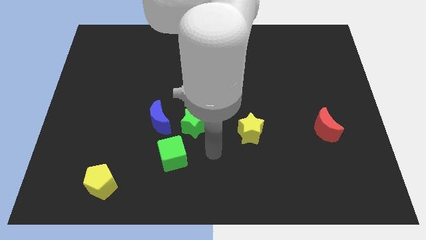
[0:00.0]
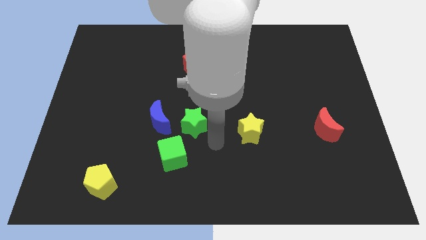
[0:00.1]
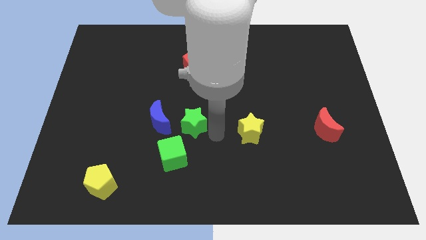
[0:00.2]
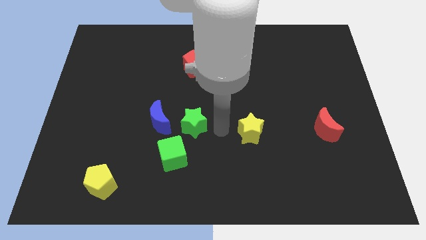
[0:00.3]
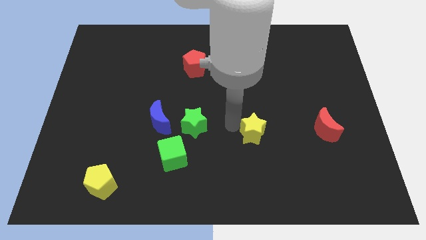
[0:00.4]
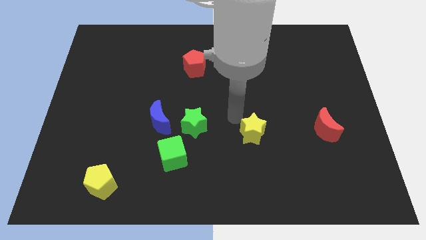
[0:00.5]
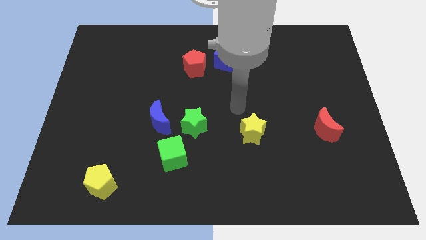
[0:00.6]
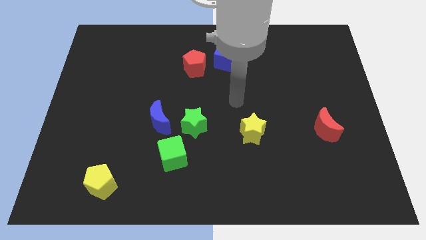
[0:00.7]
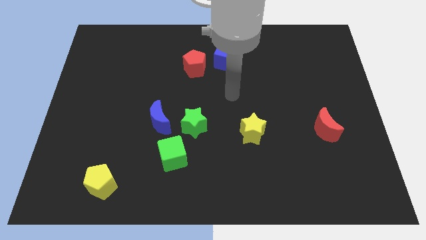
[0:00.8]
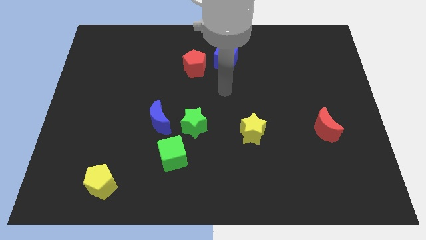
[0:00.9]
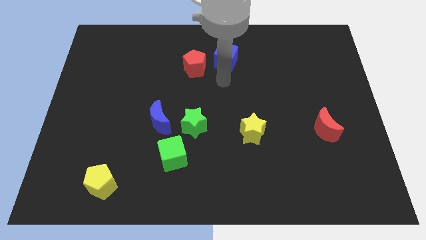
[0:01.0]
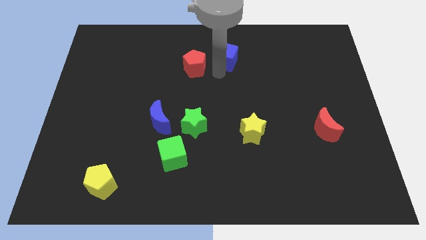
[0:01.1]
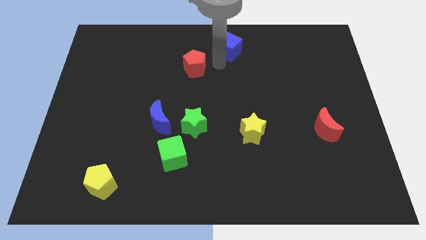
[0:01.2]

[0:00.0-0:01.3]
separate the red pentagon from the blue cube

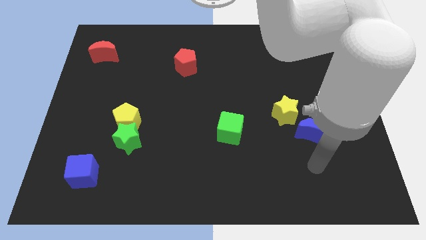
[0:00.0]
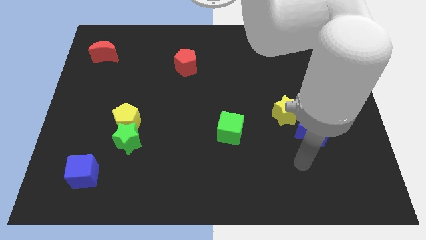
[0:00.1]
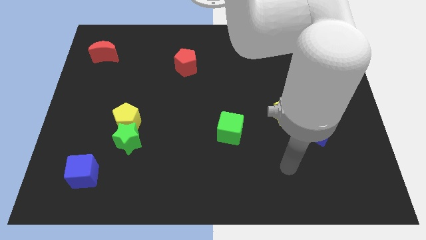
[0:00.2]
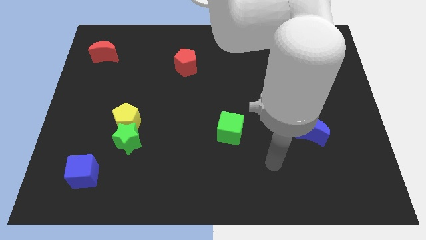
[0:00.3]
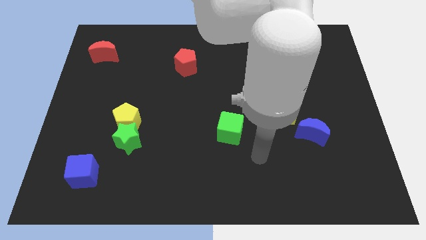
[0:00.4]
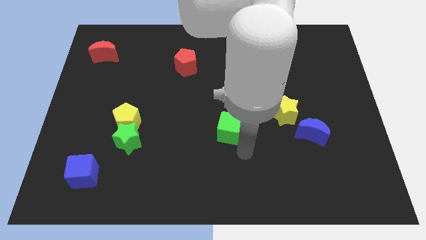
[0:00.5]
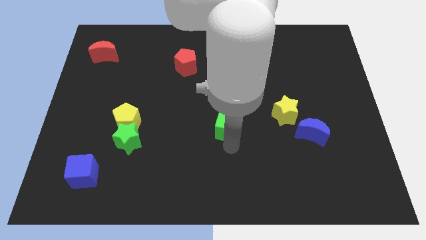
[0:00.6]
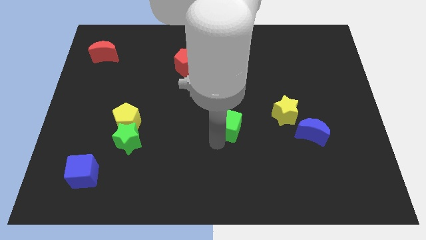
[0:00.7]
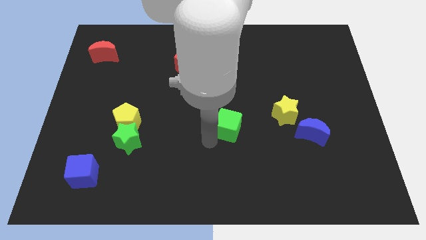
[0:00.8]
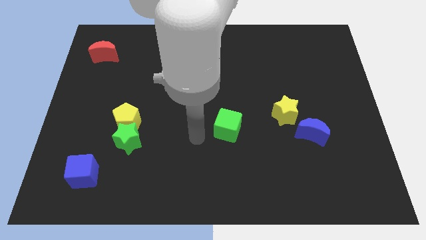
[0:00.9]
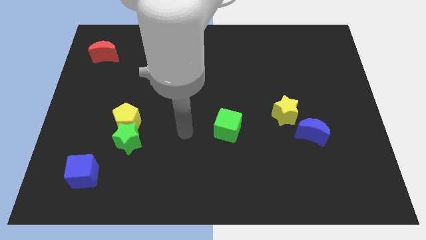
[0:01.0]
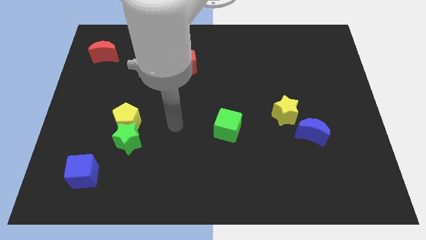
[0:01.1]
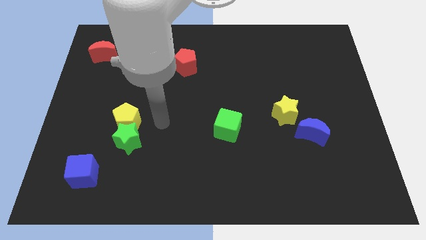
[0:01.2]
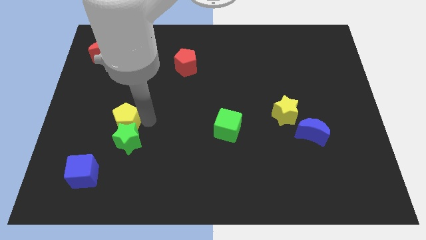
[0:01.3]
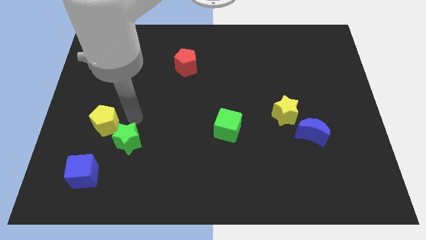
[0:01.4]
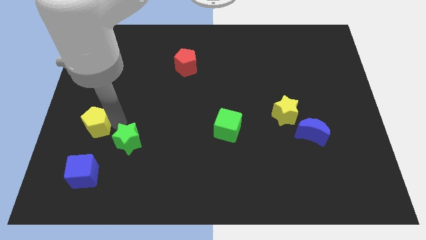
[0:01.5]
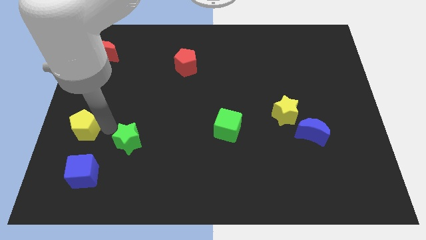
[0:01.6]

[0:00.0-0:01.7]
pull the green star apart from the yellow pentagon

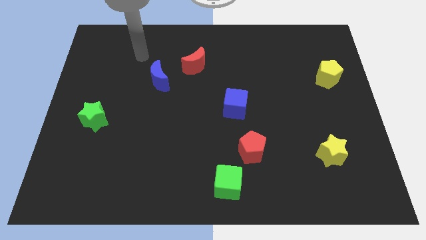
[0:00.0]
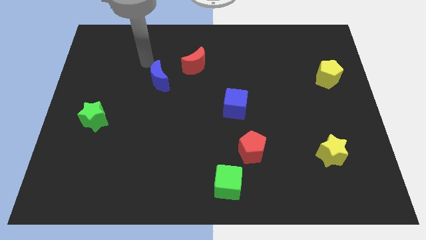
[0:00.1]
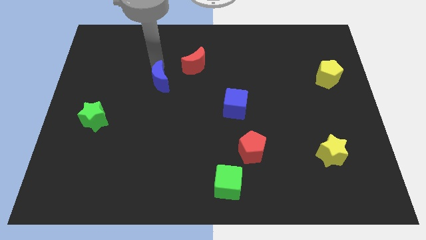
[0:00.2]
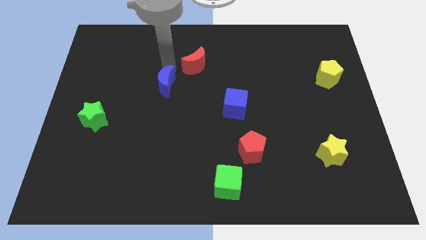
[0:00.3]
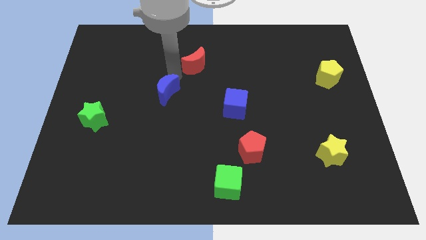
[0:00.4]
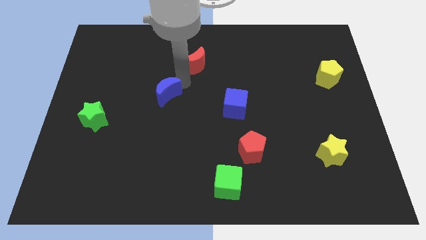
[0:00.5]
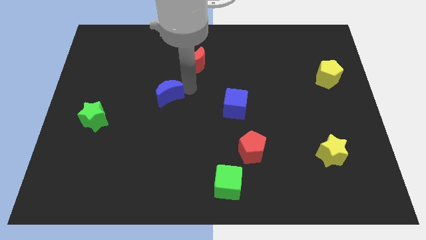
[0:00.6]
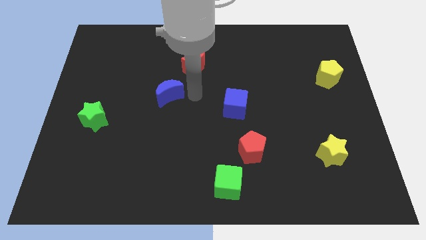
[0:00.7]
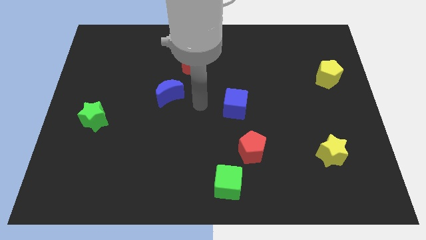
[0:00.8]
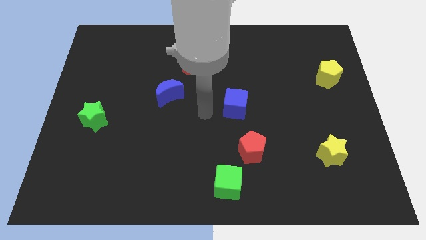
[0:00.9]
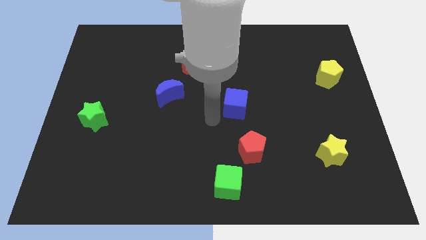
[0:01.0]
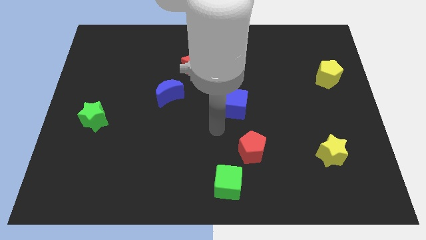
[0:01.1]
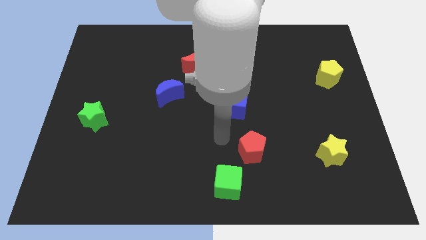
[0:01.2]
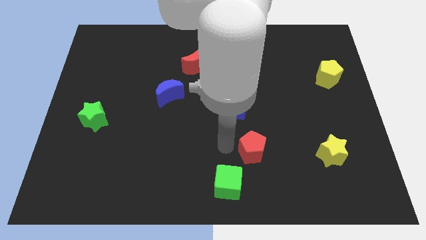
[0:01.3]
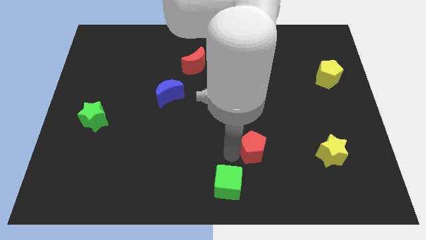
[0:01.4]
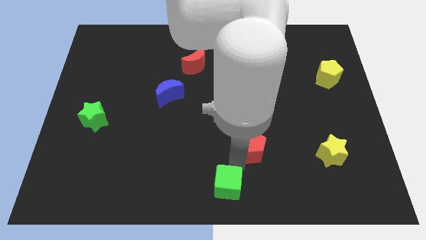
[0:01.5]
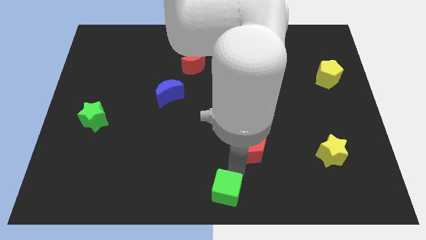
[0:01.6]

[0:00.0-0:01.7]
move the red pentagon away from the green cube

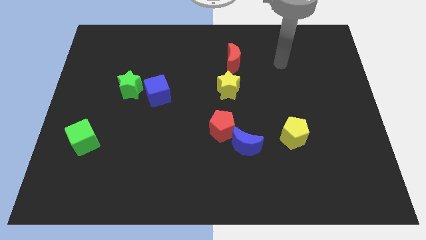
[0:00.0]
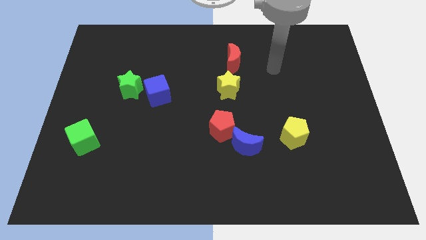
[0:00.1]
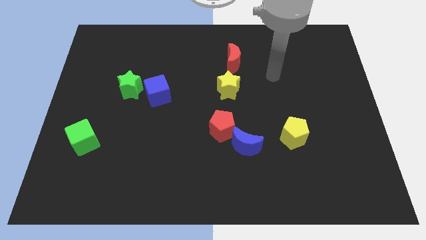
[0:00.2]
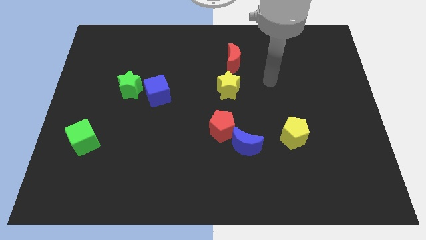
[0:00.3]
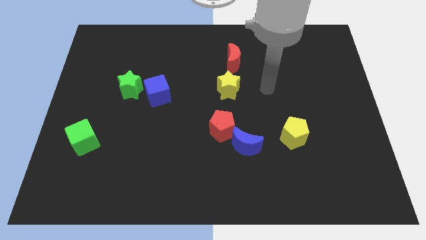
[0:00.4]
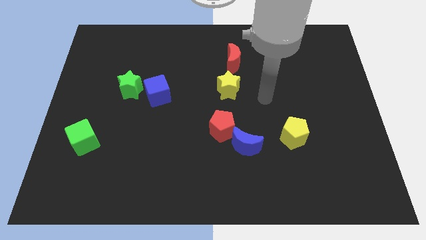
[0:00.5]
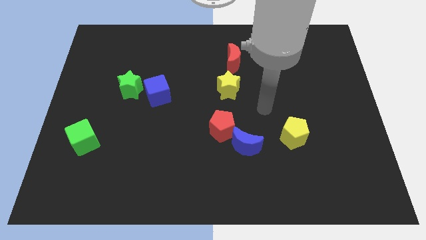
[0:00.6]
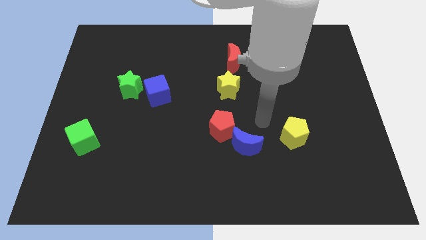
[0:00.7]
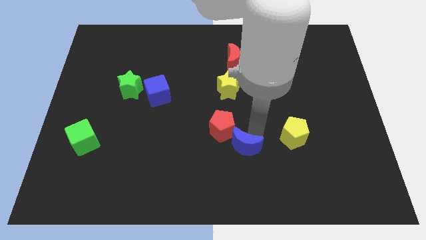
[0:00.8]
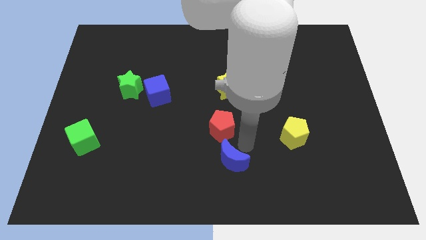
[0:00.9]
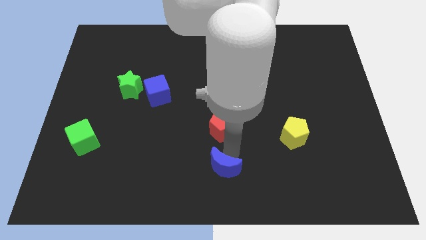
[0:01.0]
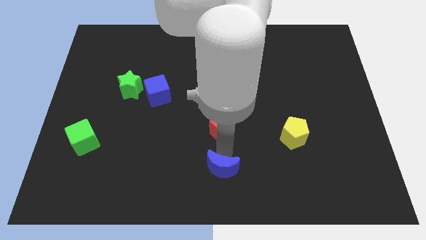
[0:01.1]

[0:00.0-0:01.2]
pull the red pentagon apart from the blue moon

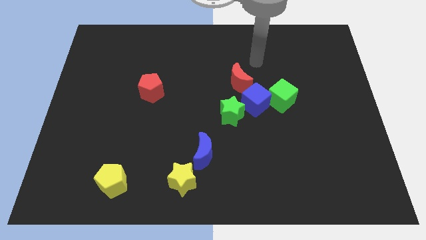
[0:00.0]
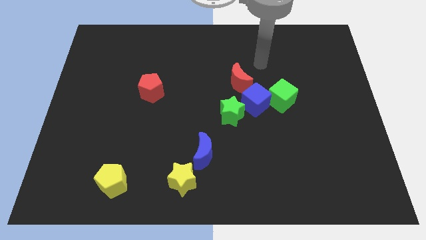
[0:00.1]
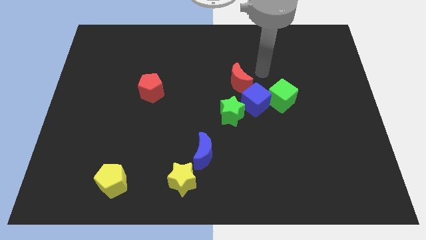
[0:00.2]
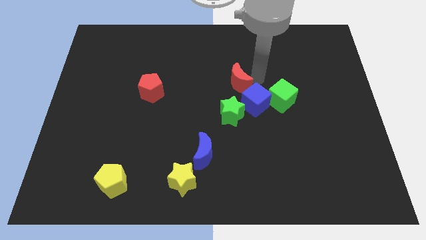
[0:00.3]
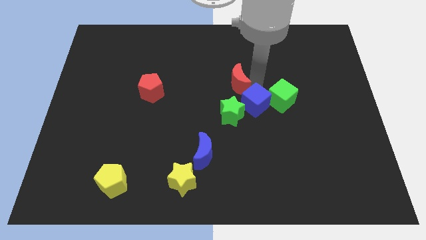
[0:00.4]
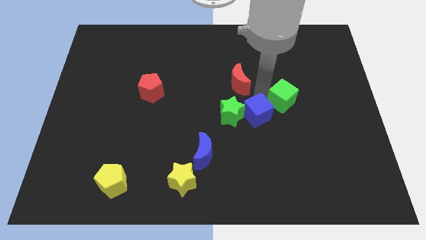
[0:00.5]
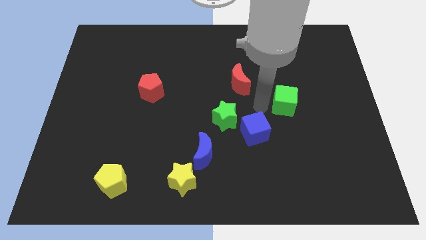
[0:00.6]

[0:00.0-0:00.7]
move the green cube away from the blue cube

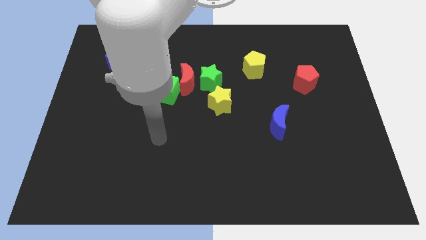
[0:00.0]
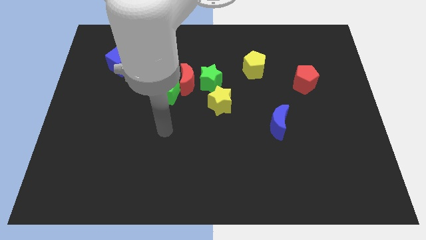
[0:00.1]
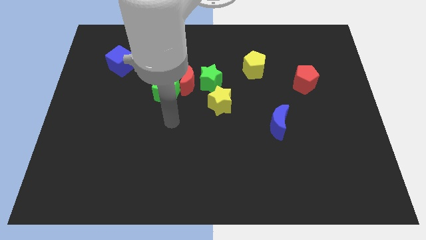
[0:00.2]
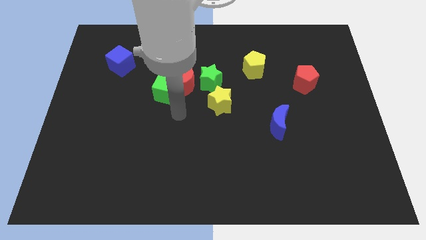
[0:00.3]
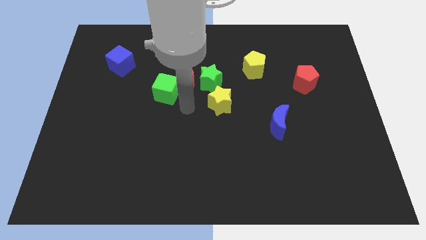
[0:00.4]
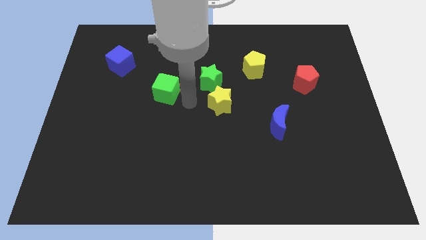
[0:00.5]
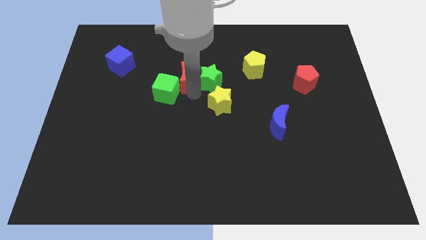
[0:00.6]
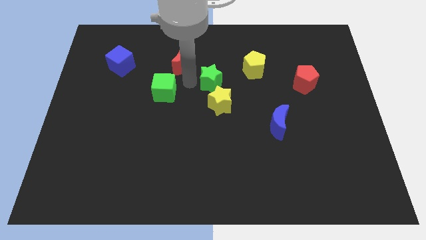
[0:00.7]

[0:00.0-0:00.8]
pull the green cube apart from the red moon

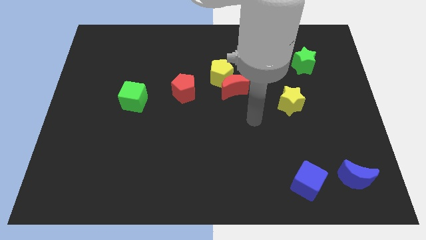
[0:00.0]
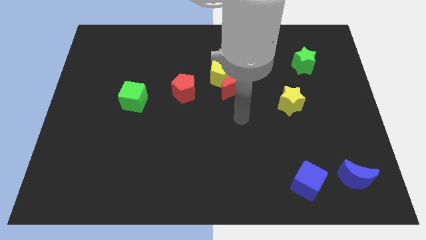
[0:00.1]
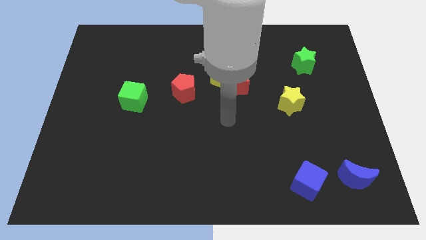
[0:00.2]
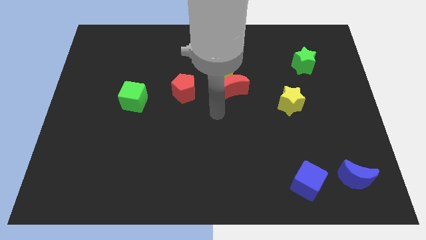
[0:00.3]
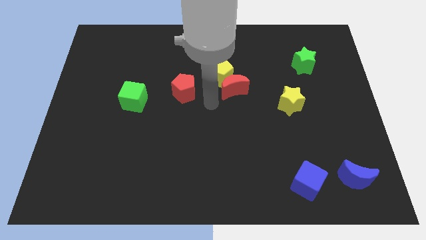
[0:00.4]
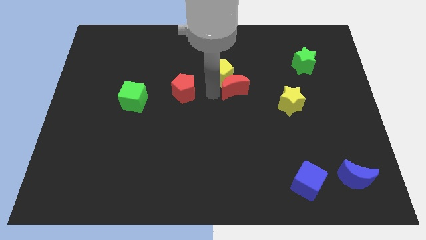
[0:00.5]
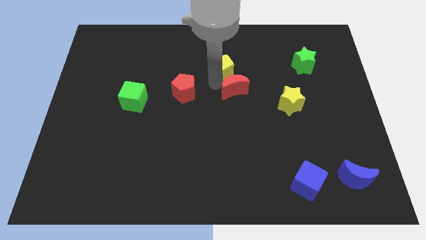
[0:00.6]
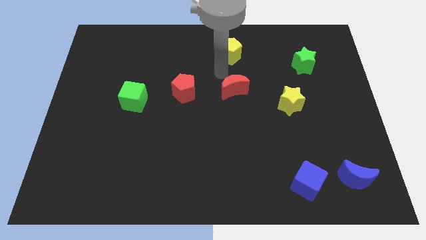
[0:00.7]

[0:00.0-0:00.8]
separate the red moon from the yellow pentagon

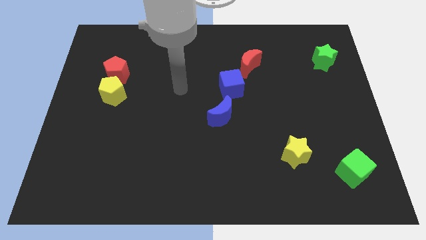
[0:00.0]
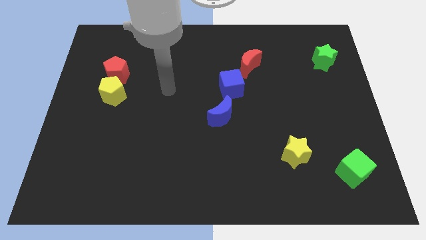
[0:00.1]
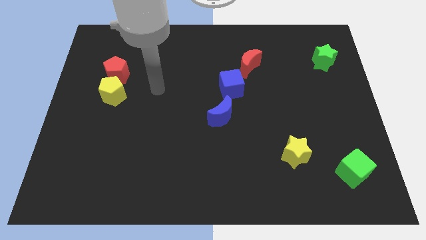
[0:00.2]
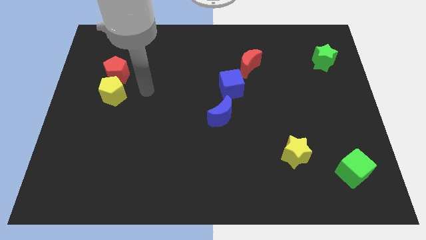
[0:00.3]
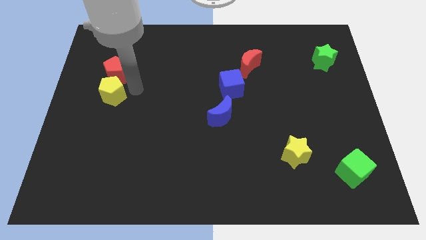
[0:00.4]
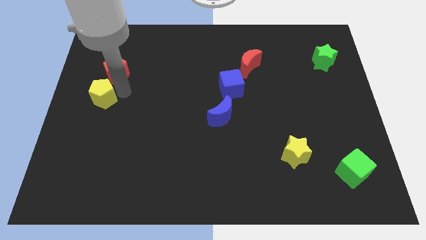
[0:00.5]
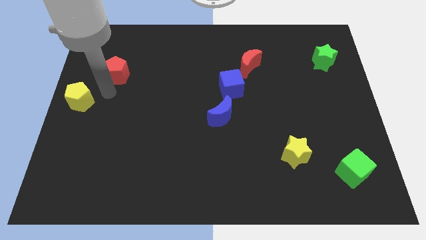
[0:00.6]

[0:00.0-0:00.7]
move the red pentagon away from the yellow pentagon

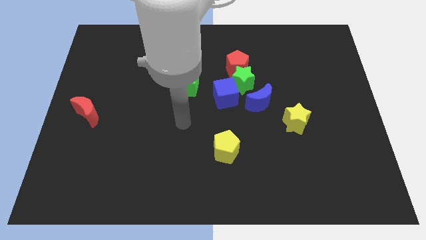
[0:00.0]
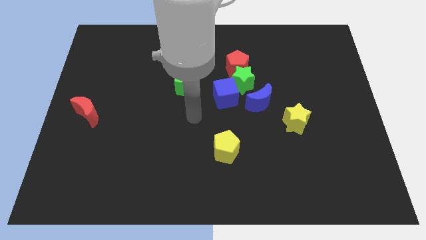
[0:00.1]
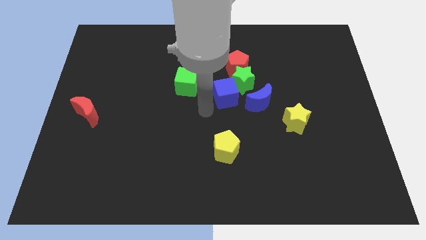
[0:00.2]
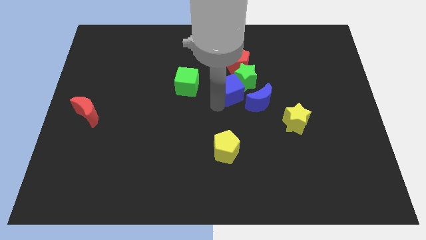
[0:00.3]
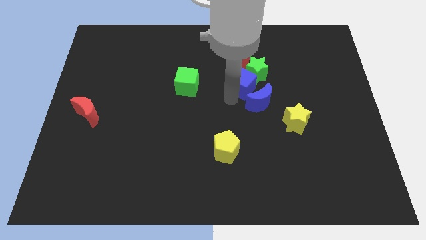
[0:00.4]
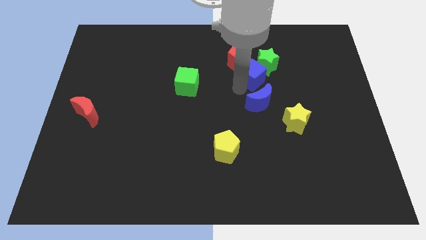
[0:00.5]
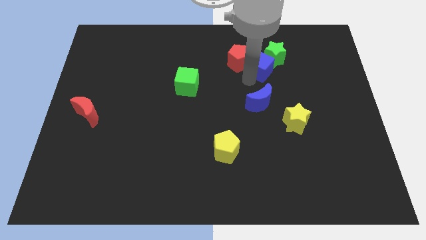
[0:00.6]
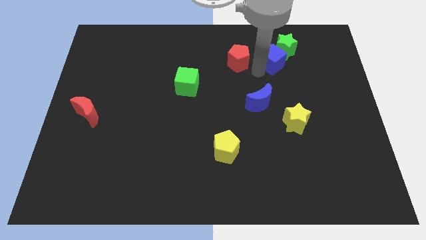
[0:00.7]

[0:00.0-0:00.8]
pull the green star apart from the group of blocks
